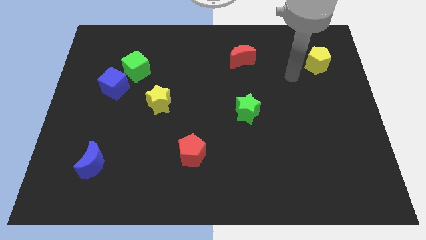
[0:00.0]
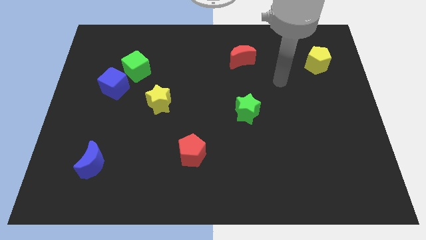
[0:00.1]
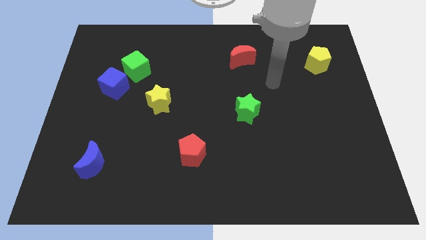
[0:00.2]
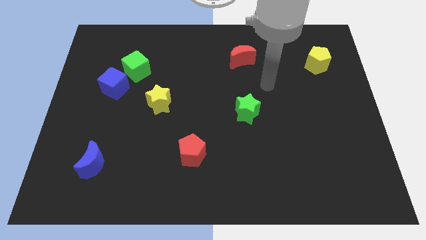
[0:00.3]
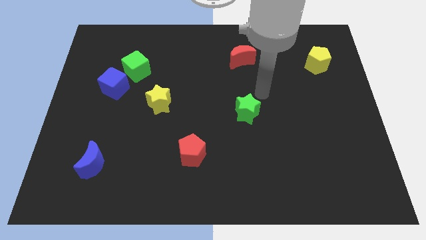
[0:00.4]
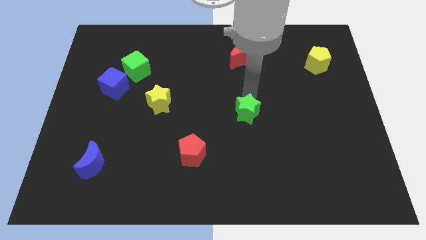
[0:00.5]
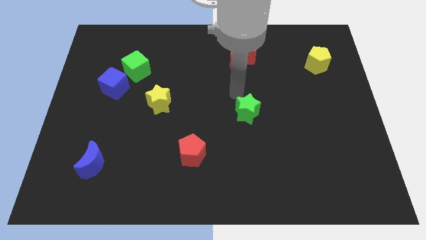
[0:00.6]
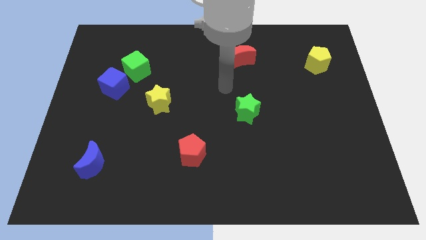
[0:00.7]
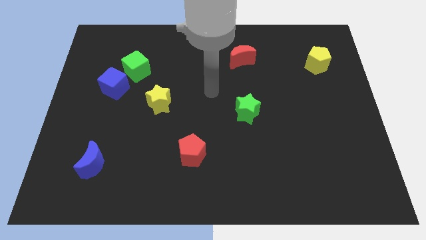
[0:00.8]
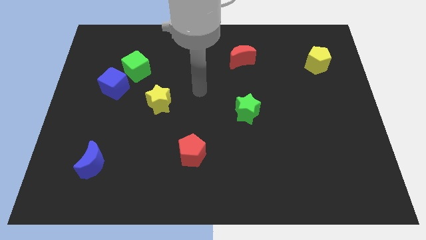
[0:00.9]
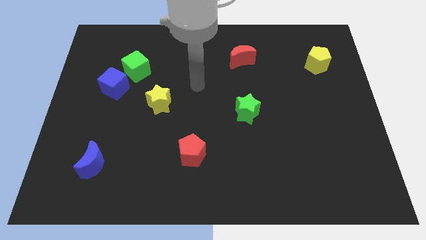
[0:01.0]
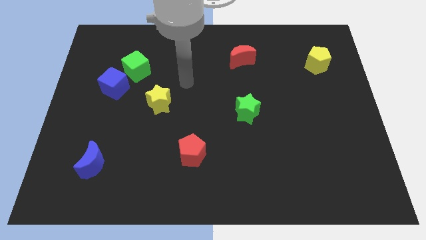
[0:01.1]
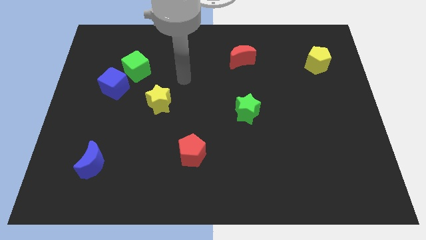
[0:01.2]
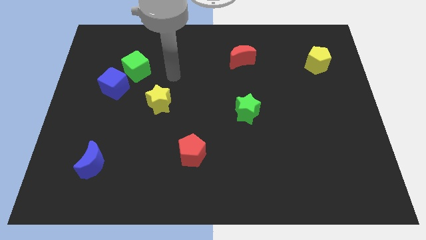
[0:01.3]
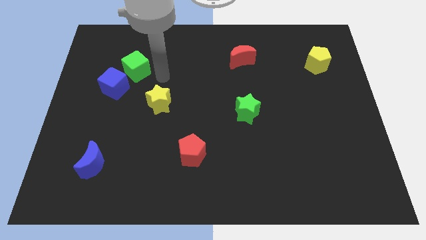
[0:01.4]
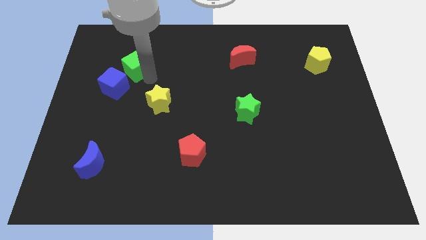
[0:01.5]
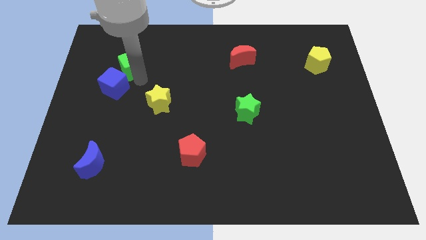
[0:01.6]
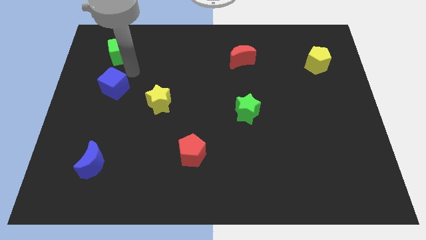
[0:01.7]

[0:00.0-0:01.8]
pull the blue cube apart from the green cube

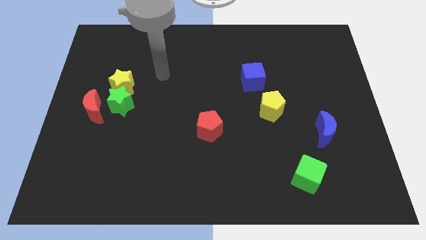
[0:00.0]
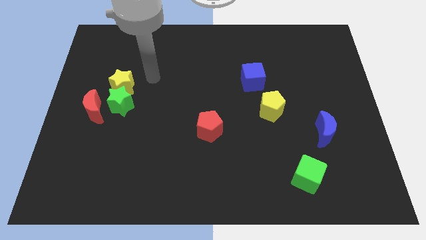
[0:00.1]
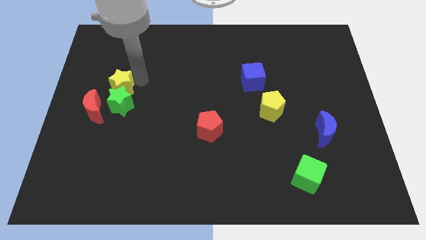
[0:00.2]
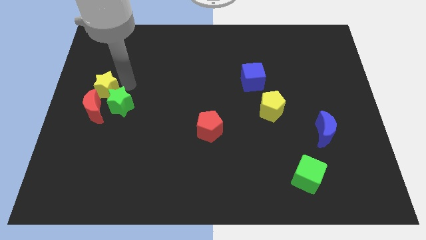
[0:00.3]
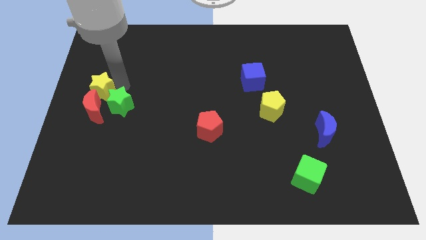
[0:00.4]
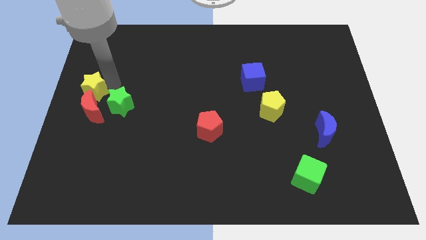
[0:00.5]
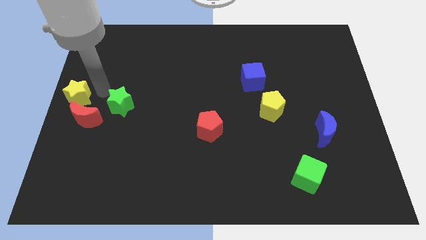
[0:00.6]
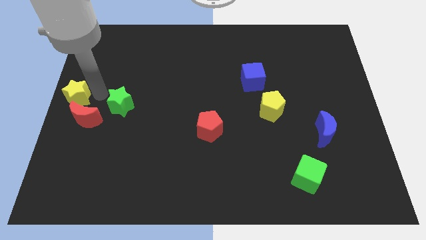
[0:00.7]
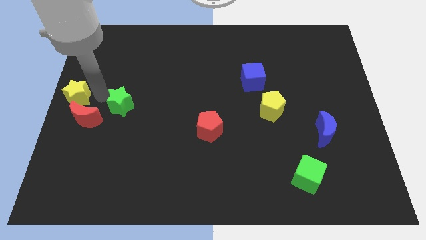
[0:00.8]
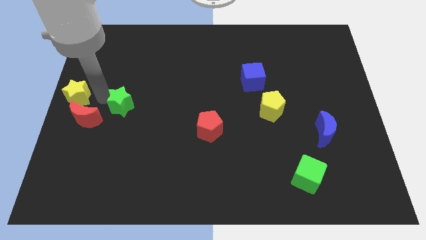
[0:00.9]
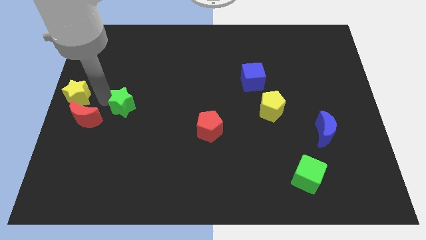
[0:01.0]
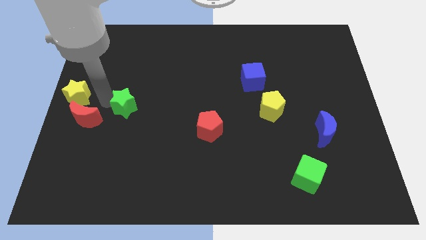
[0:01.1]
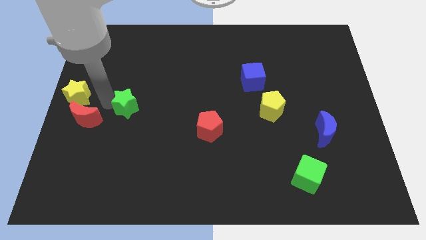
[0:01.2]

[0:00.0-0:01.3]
separate the green star from the yellow star and red moon

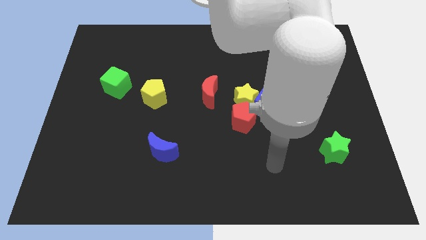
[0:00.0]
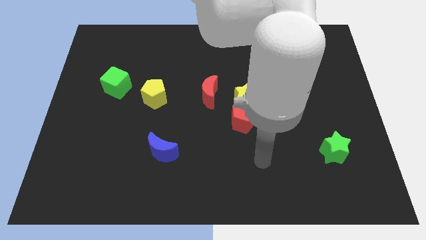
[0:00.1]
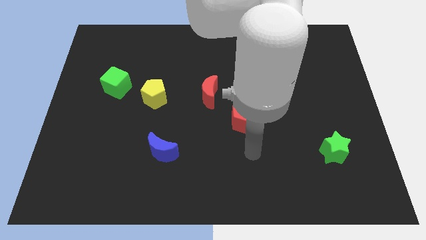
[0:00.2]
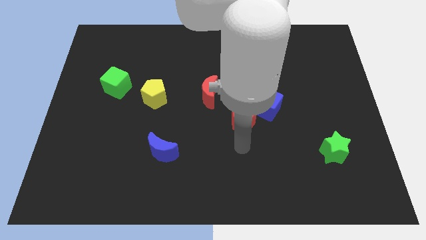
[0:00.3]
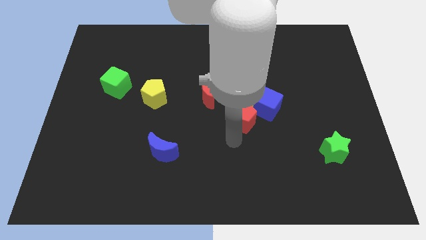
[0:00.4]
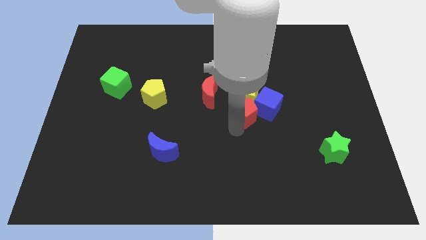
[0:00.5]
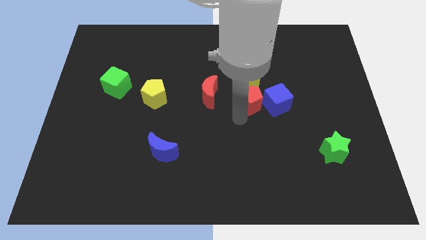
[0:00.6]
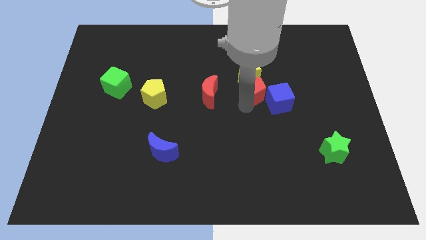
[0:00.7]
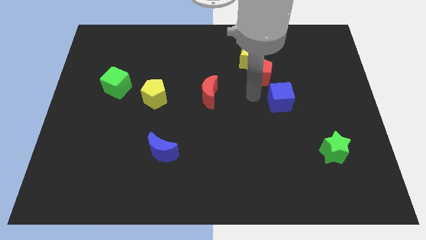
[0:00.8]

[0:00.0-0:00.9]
move the blue cube away from the yellow star and red pentagon

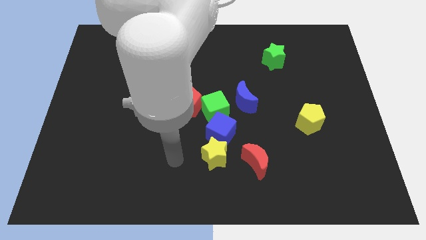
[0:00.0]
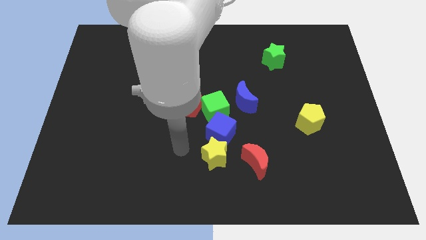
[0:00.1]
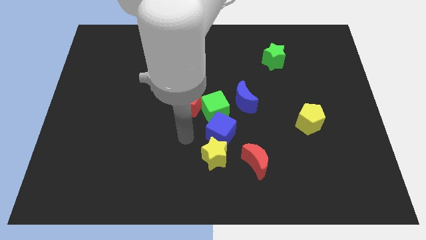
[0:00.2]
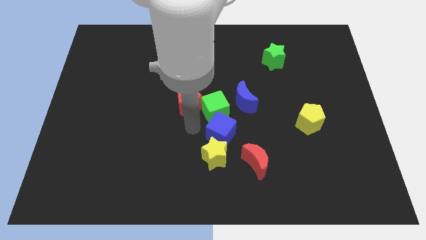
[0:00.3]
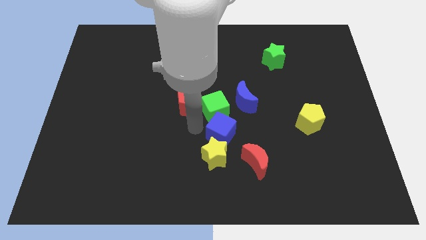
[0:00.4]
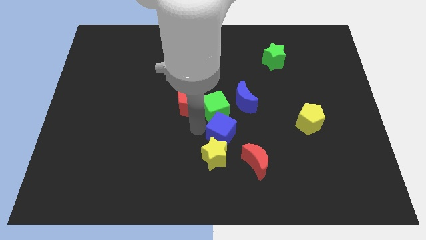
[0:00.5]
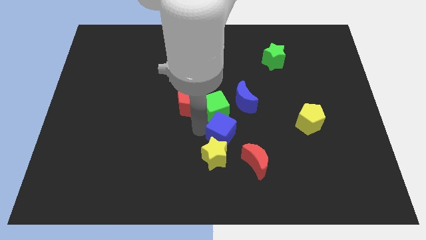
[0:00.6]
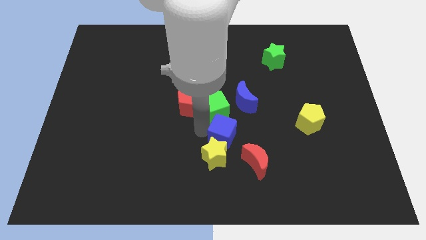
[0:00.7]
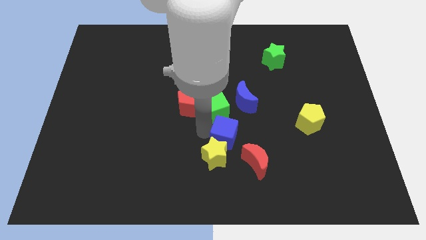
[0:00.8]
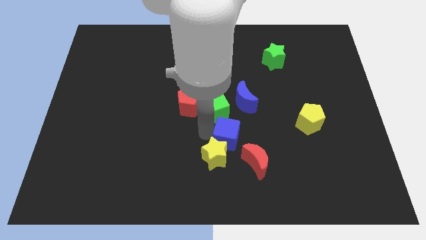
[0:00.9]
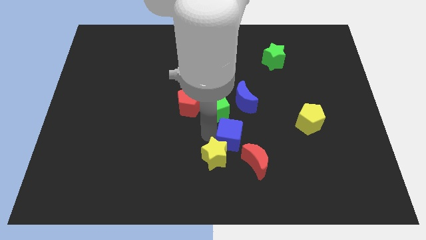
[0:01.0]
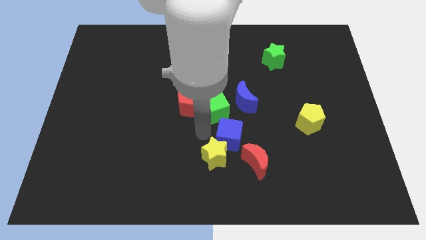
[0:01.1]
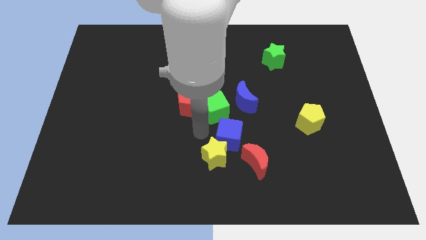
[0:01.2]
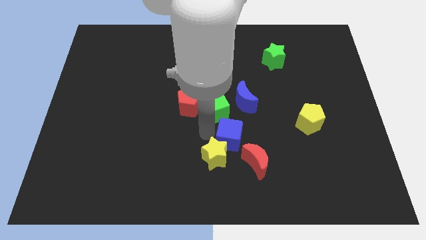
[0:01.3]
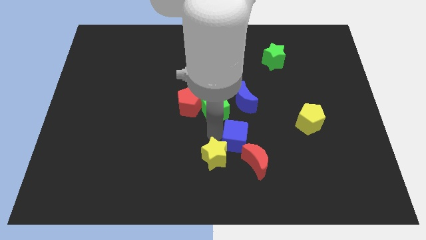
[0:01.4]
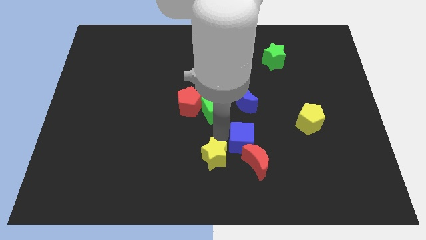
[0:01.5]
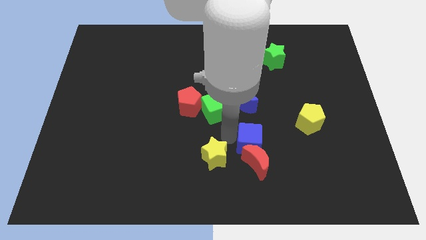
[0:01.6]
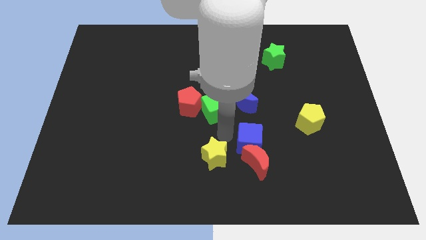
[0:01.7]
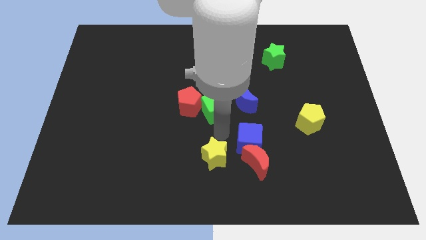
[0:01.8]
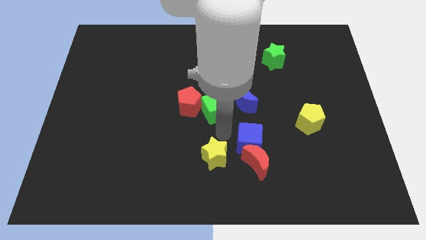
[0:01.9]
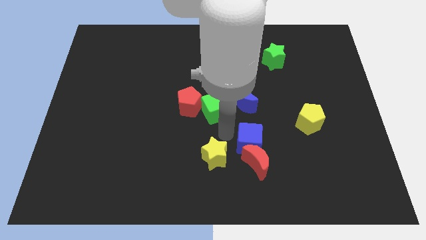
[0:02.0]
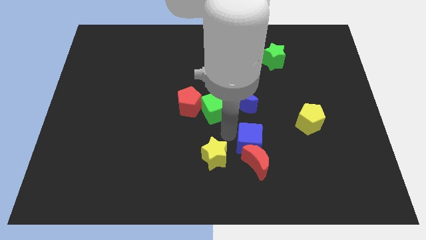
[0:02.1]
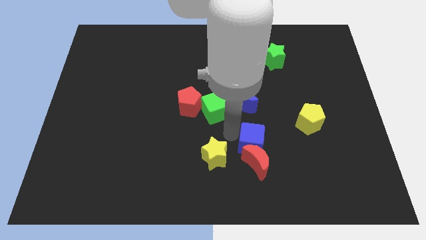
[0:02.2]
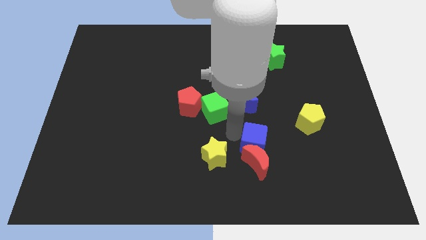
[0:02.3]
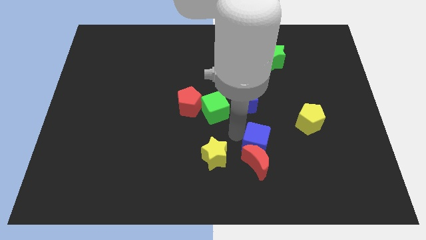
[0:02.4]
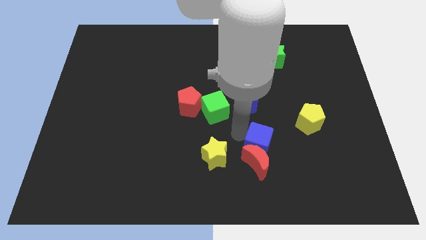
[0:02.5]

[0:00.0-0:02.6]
move the blue cube away from the yellow star and green cube

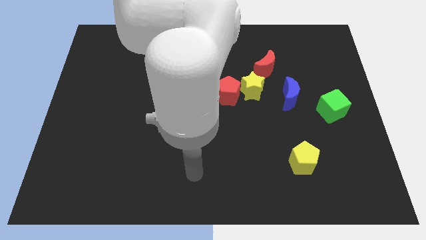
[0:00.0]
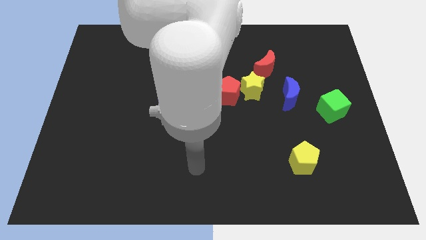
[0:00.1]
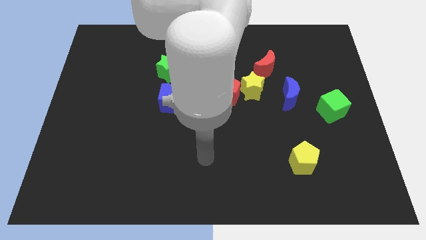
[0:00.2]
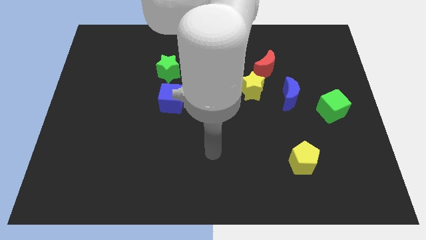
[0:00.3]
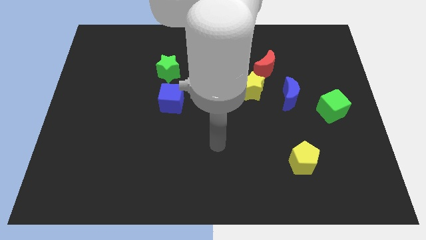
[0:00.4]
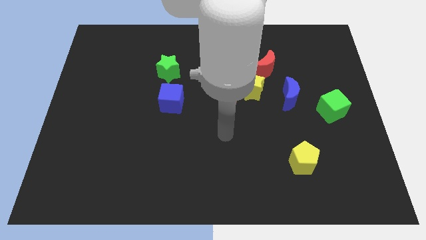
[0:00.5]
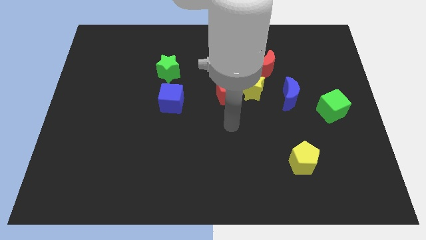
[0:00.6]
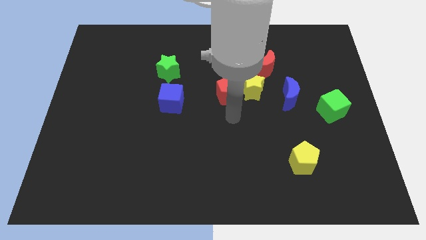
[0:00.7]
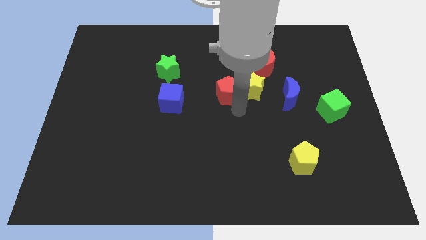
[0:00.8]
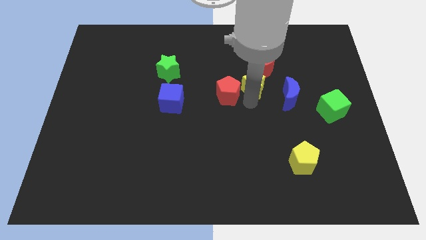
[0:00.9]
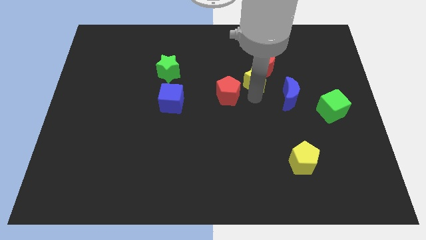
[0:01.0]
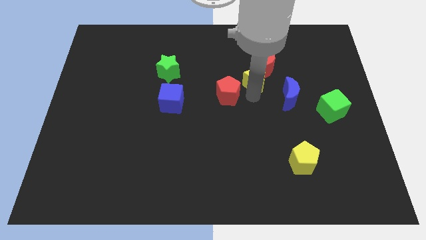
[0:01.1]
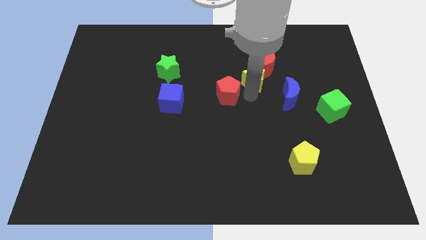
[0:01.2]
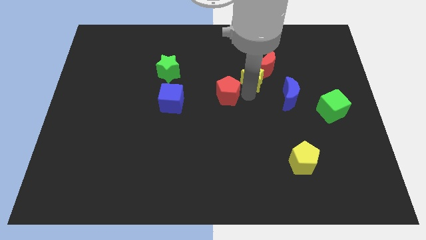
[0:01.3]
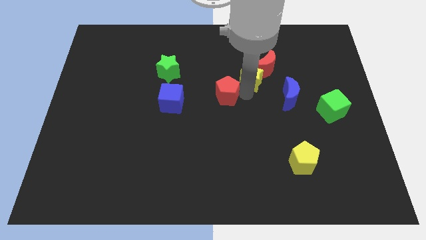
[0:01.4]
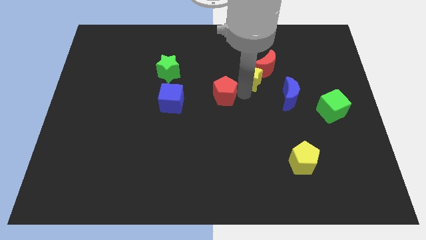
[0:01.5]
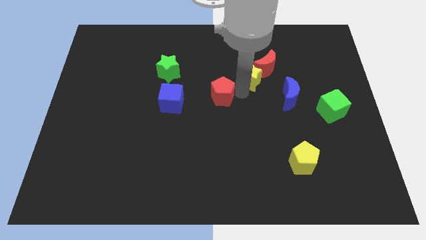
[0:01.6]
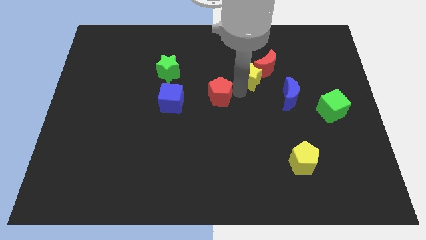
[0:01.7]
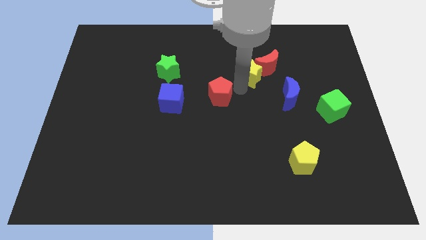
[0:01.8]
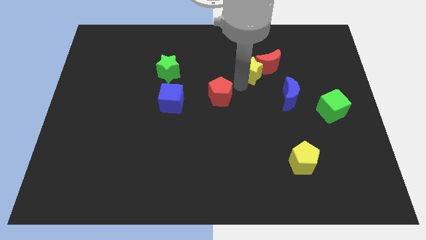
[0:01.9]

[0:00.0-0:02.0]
separate the red pentagon from the yellow star

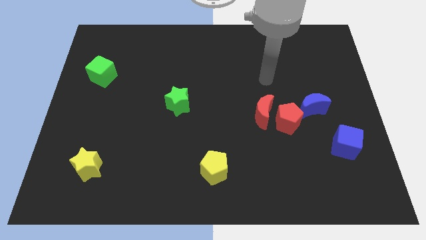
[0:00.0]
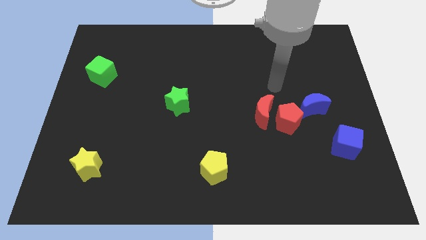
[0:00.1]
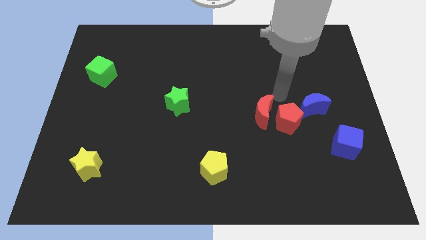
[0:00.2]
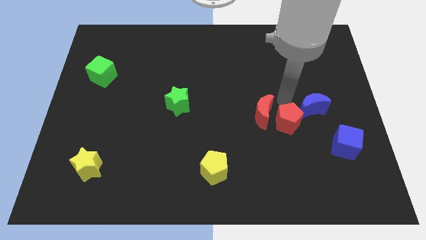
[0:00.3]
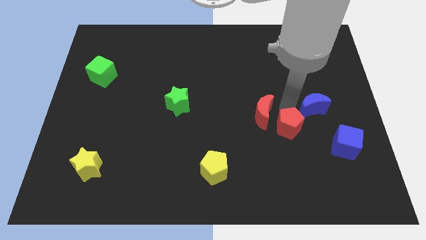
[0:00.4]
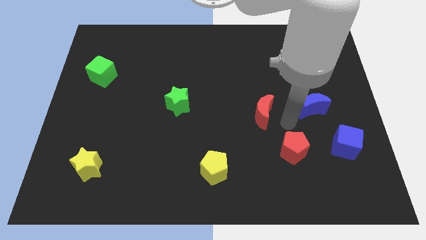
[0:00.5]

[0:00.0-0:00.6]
move the red moon away from the red pentagon

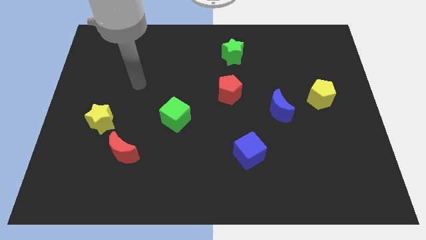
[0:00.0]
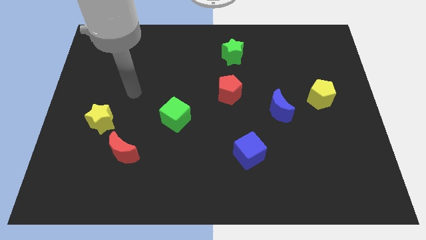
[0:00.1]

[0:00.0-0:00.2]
separate the red moon from the yellow star
